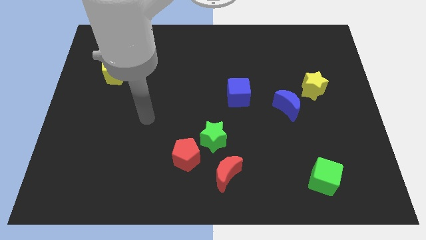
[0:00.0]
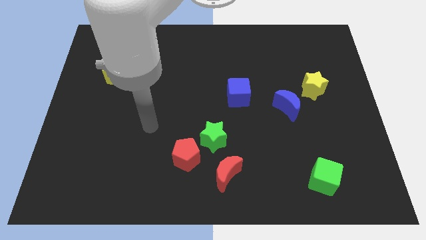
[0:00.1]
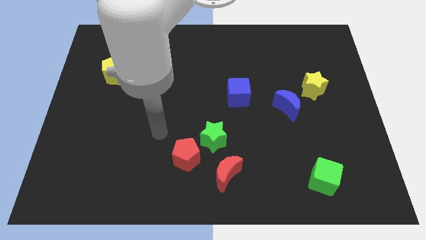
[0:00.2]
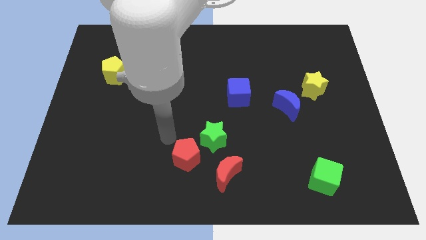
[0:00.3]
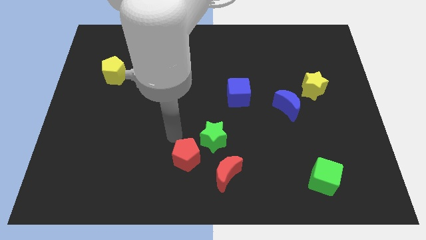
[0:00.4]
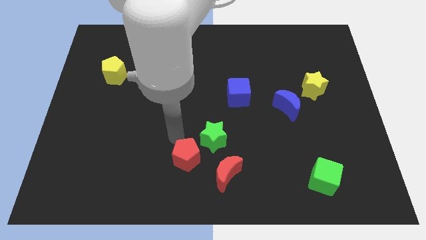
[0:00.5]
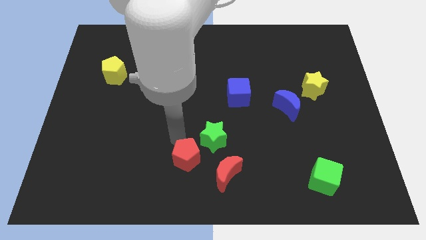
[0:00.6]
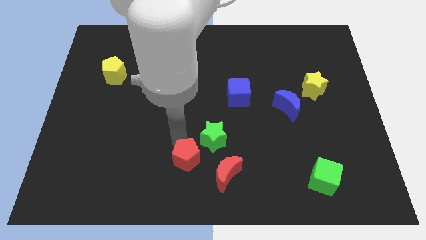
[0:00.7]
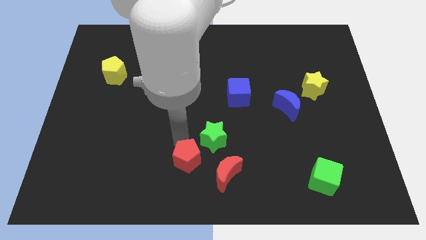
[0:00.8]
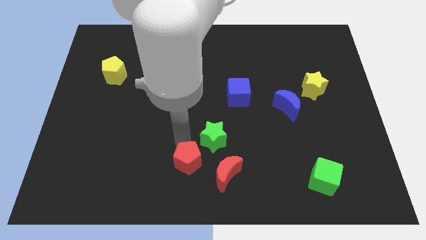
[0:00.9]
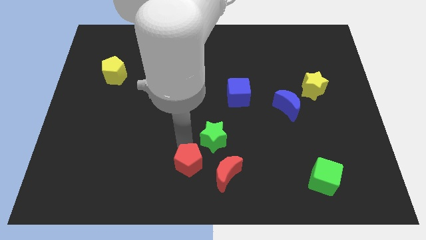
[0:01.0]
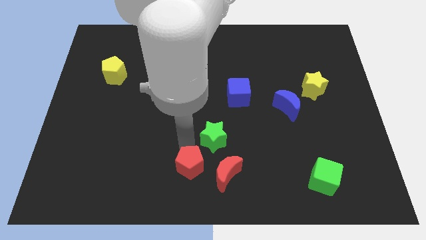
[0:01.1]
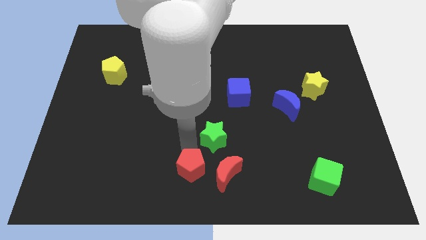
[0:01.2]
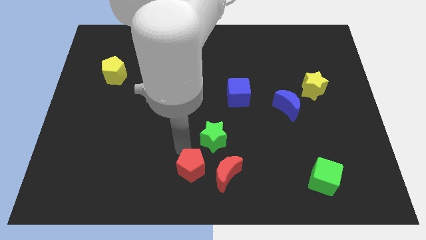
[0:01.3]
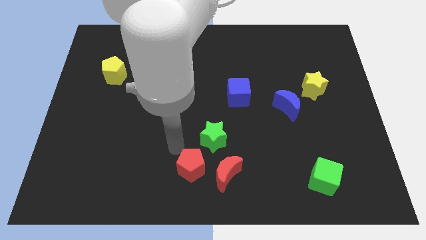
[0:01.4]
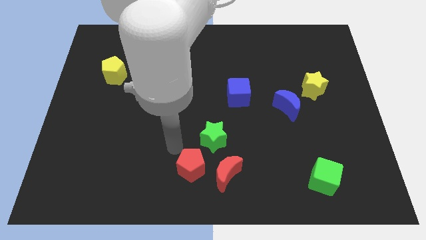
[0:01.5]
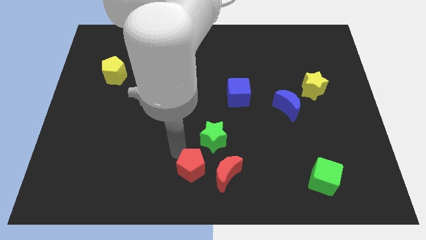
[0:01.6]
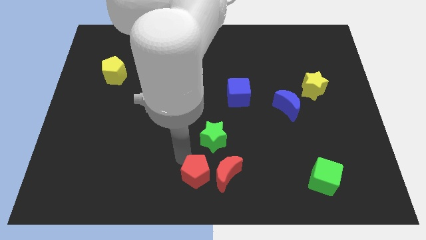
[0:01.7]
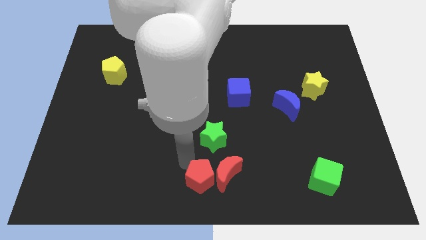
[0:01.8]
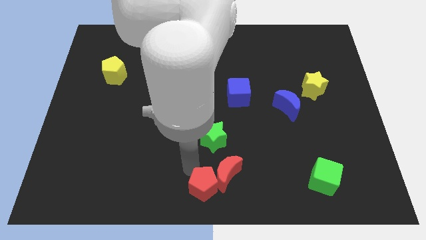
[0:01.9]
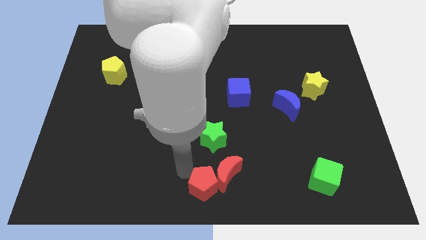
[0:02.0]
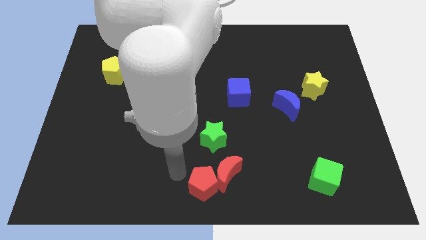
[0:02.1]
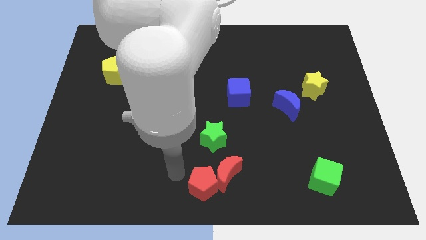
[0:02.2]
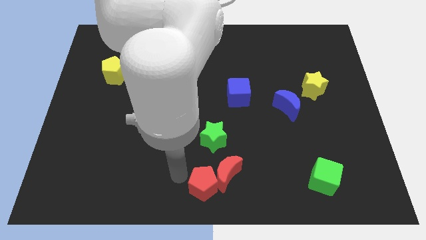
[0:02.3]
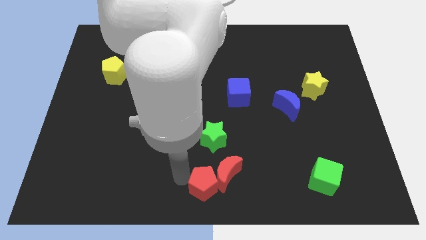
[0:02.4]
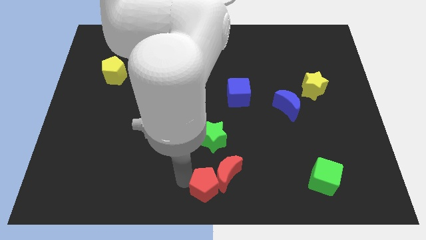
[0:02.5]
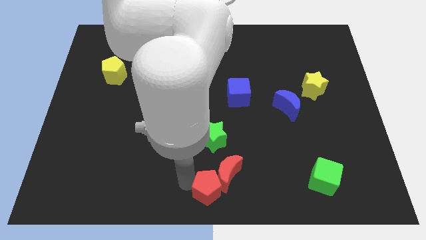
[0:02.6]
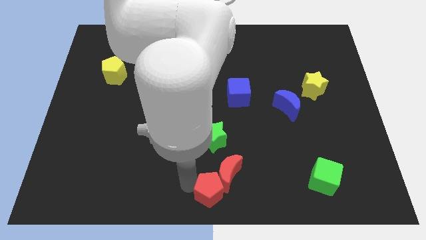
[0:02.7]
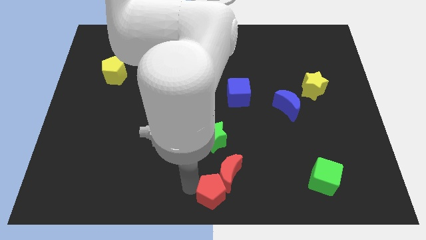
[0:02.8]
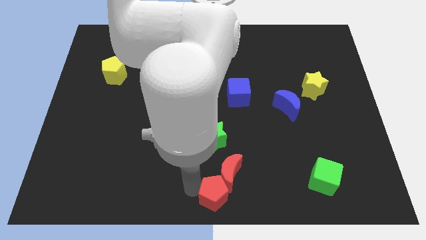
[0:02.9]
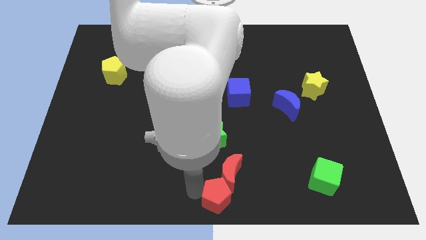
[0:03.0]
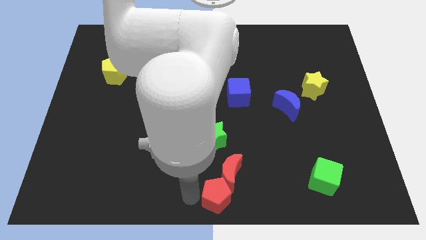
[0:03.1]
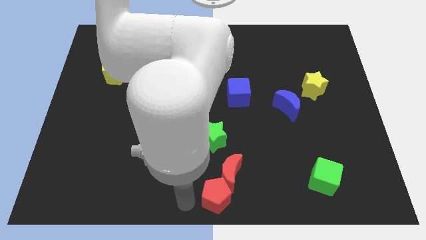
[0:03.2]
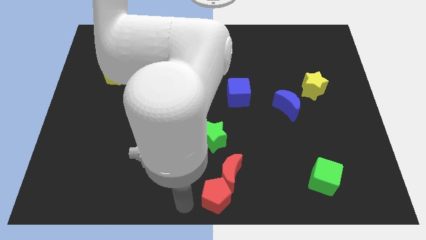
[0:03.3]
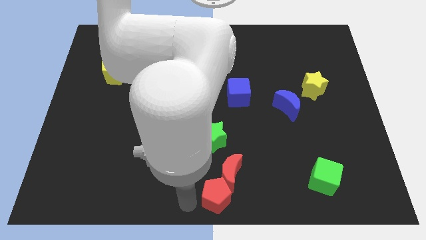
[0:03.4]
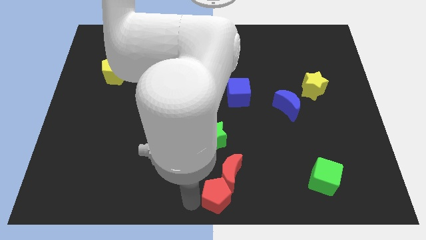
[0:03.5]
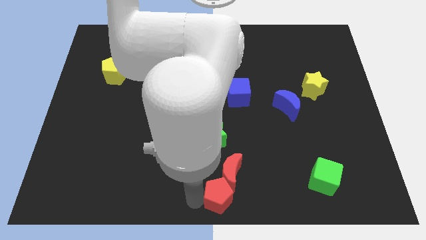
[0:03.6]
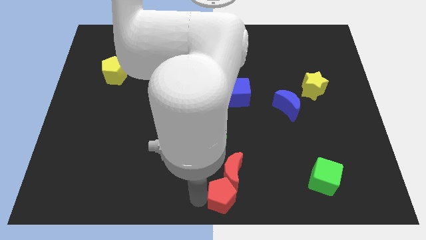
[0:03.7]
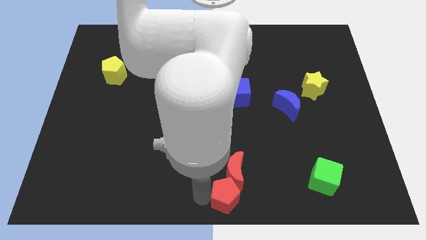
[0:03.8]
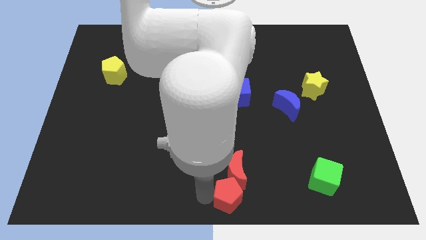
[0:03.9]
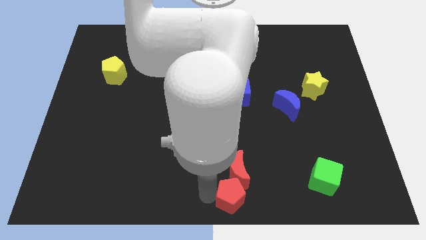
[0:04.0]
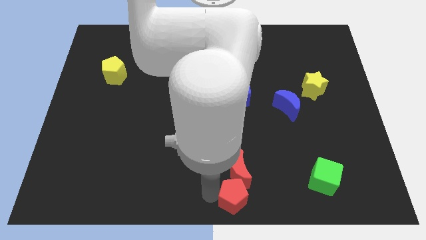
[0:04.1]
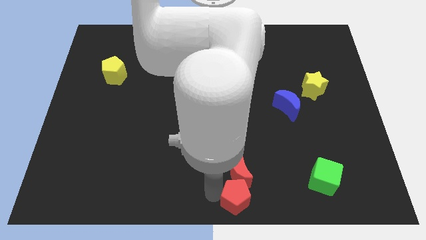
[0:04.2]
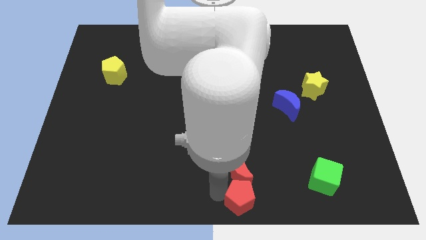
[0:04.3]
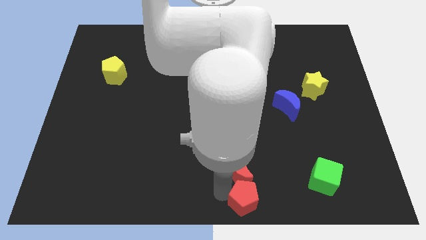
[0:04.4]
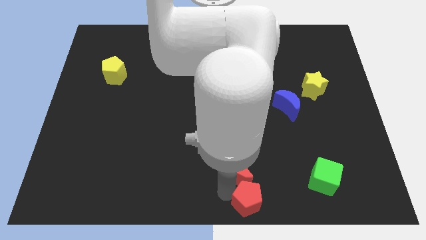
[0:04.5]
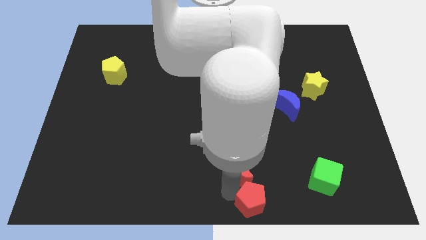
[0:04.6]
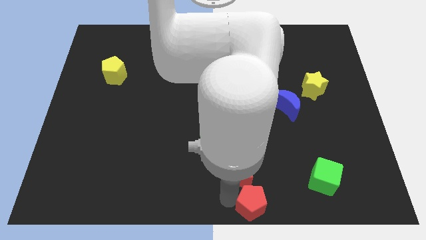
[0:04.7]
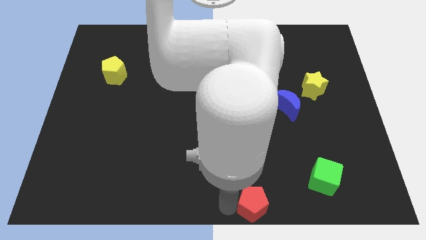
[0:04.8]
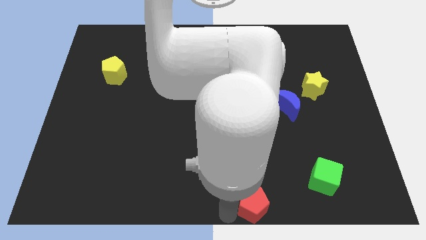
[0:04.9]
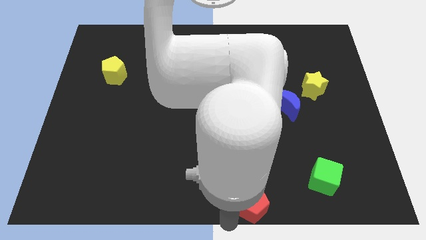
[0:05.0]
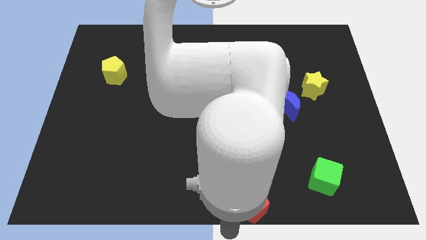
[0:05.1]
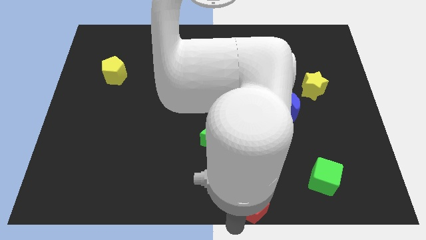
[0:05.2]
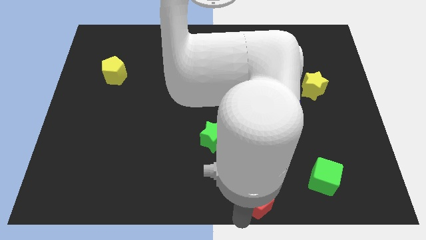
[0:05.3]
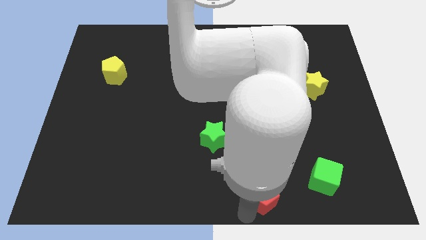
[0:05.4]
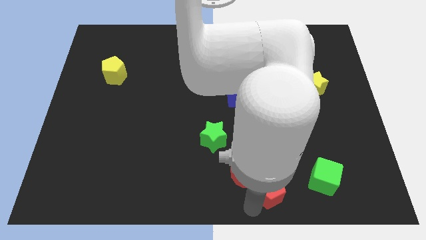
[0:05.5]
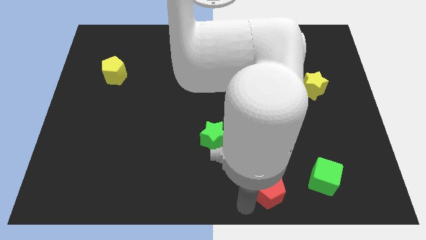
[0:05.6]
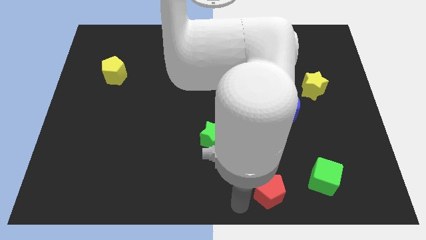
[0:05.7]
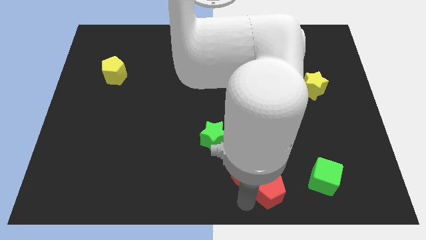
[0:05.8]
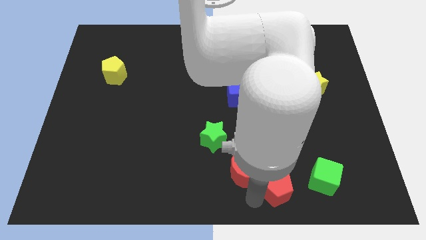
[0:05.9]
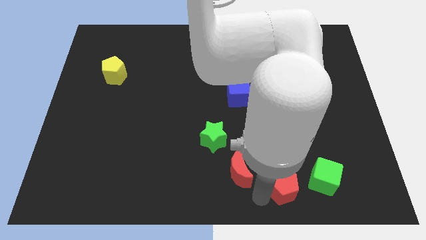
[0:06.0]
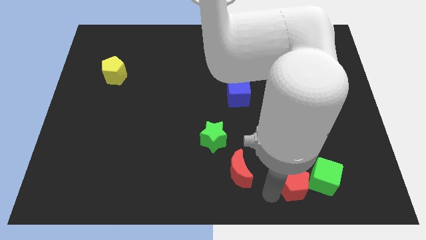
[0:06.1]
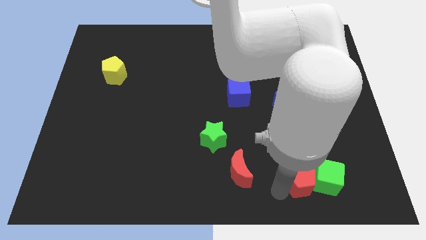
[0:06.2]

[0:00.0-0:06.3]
slide the red pentagon towards the green cube

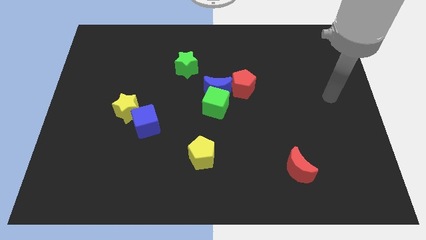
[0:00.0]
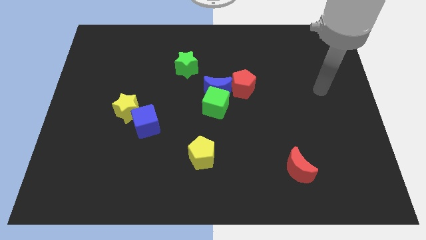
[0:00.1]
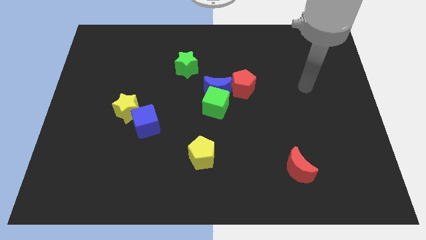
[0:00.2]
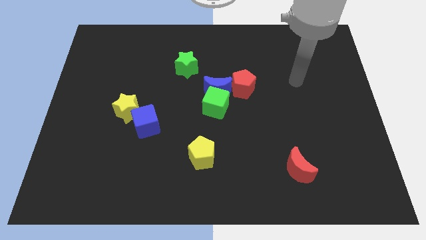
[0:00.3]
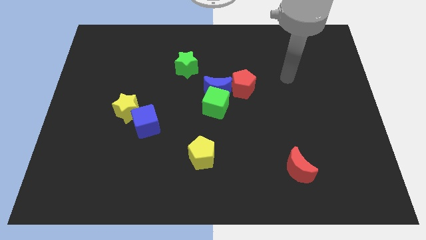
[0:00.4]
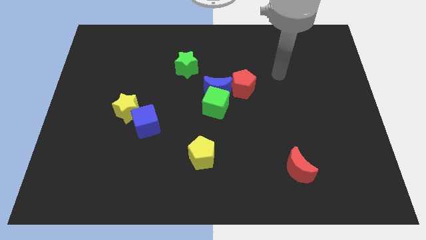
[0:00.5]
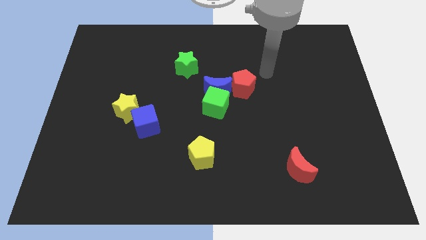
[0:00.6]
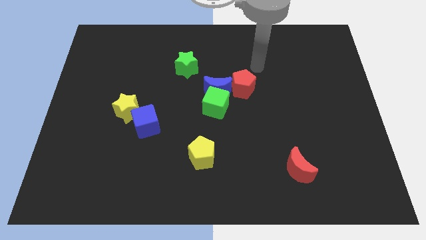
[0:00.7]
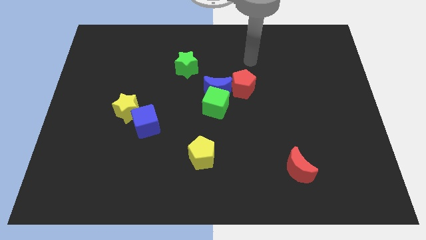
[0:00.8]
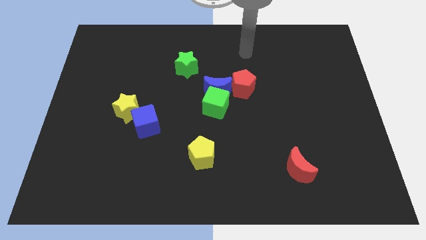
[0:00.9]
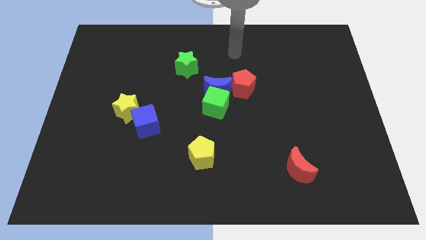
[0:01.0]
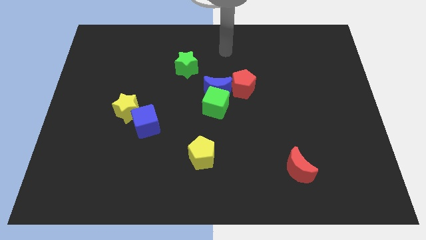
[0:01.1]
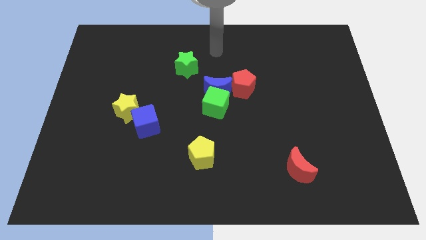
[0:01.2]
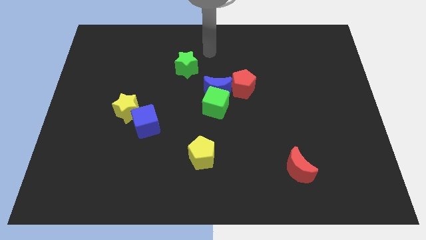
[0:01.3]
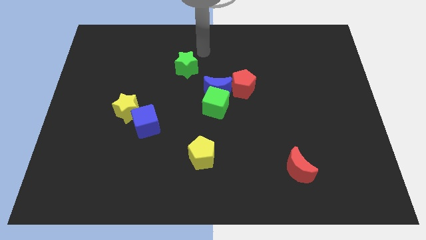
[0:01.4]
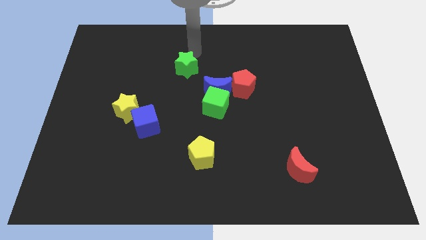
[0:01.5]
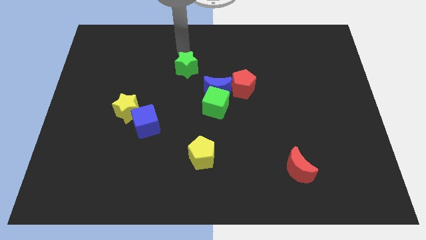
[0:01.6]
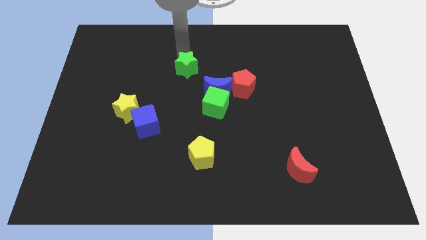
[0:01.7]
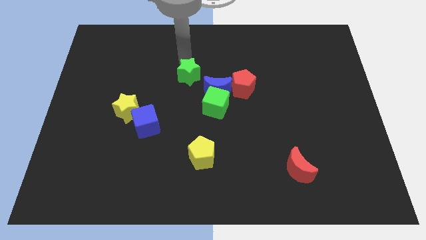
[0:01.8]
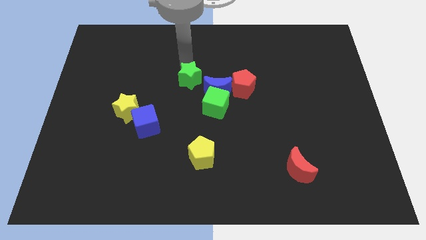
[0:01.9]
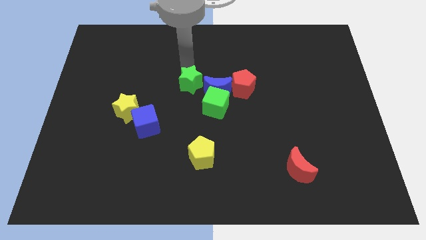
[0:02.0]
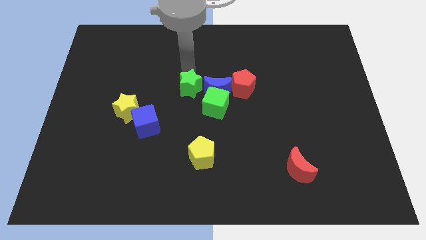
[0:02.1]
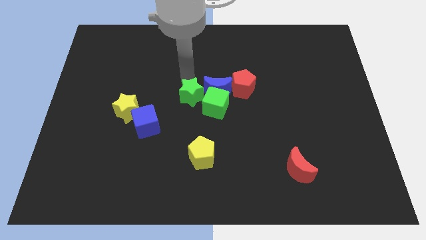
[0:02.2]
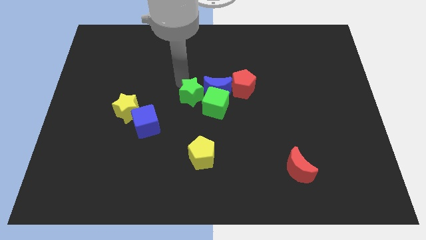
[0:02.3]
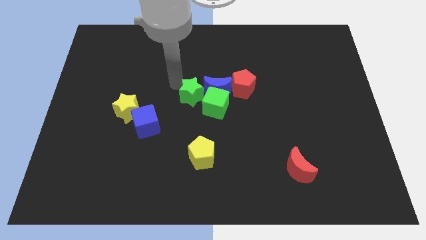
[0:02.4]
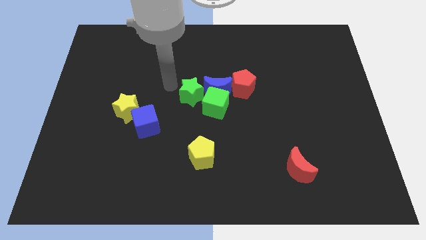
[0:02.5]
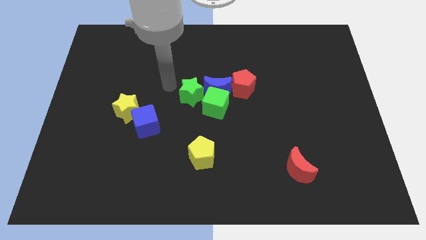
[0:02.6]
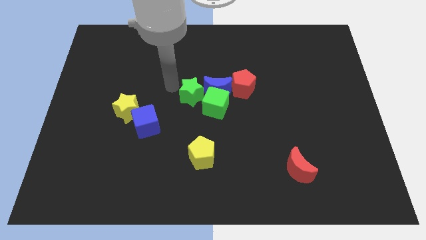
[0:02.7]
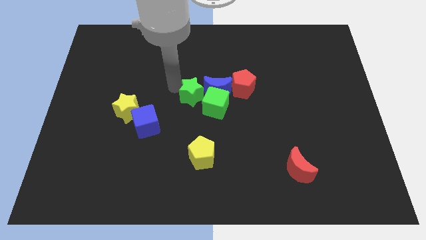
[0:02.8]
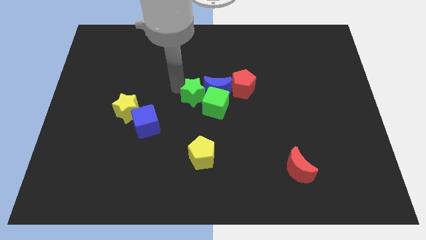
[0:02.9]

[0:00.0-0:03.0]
slide the green star towards the green cube
